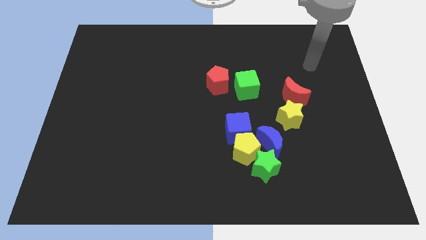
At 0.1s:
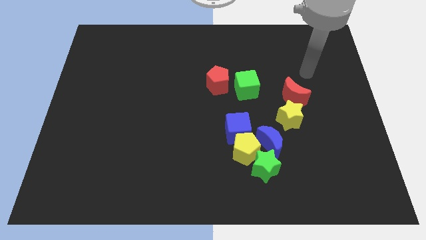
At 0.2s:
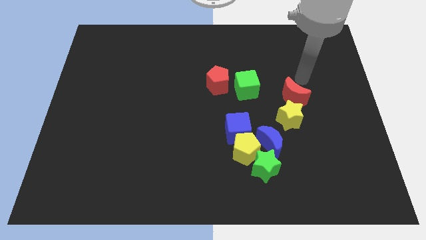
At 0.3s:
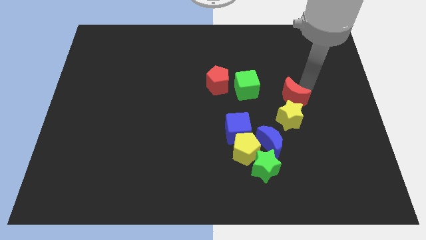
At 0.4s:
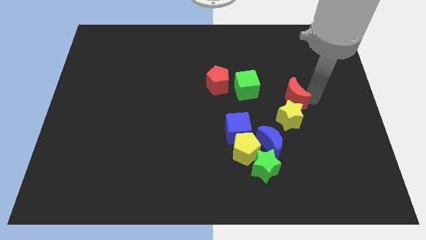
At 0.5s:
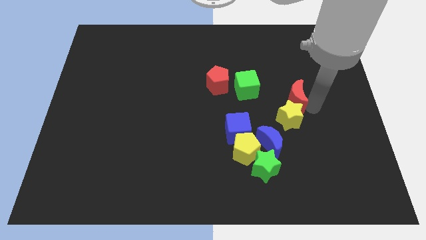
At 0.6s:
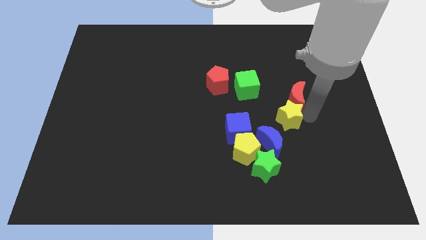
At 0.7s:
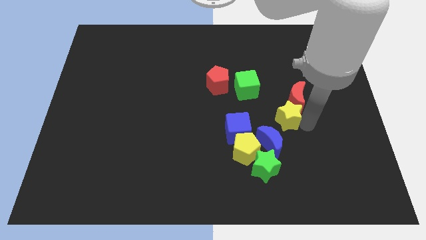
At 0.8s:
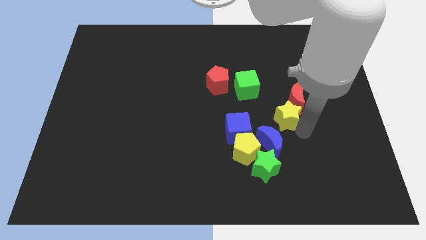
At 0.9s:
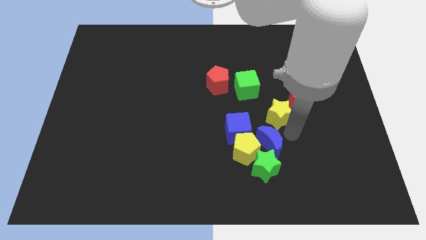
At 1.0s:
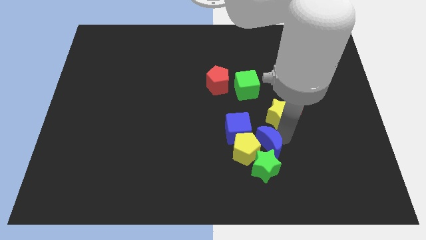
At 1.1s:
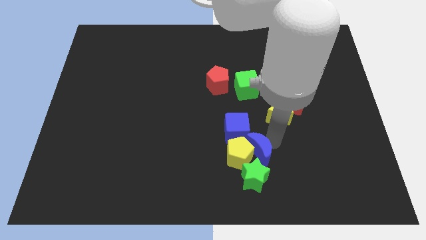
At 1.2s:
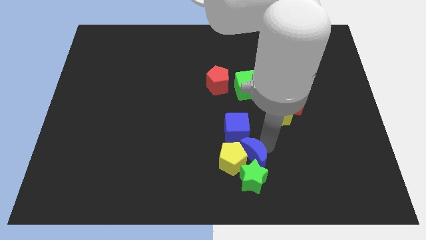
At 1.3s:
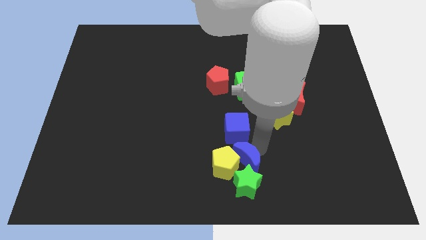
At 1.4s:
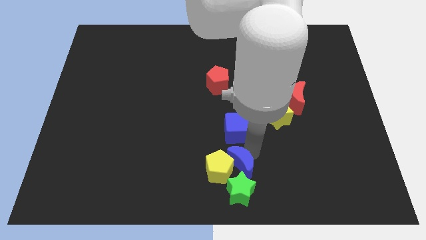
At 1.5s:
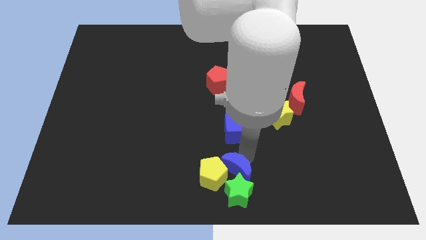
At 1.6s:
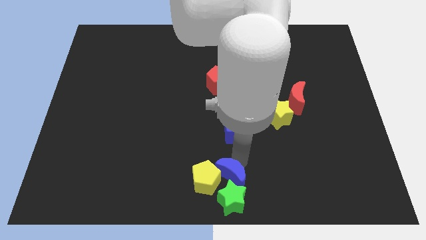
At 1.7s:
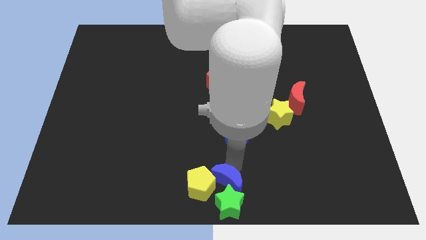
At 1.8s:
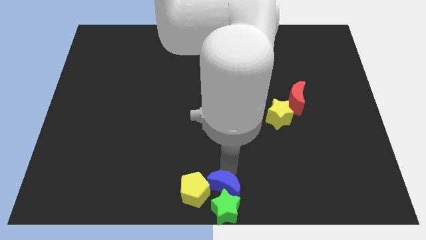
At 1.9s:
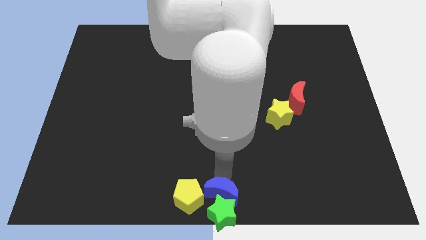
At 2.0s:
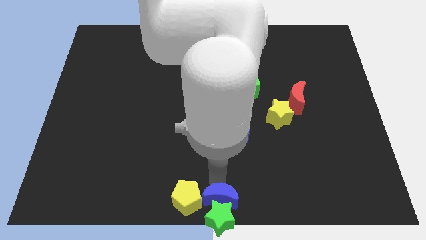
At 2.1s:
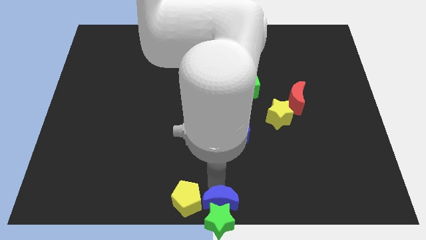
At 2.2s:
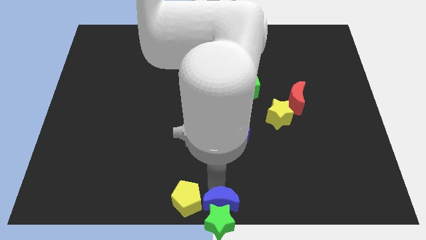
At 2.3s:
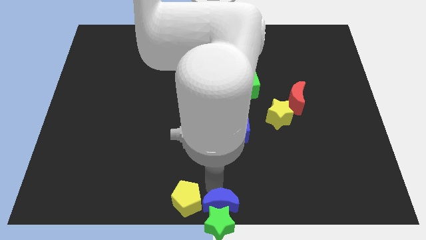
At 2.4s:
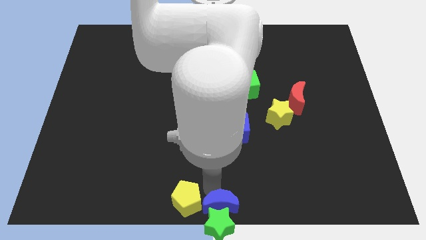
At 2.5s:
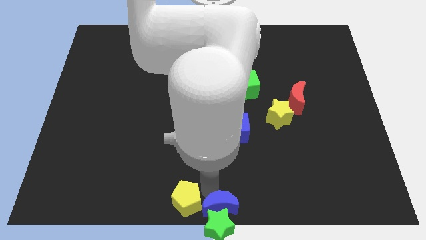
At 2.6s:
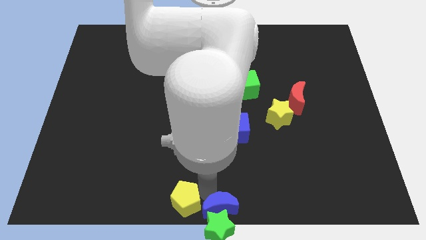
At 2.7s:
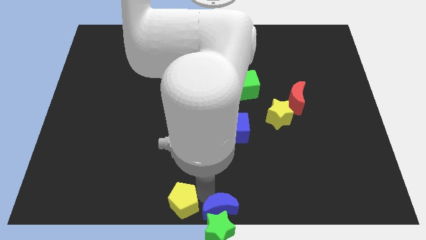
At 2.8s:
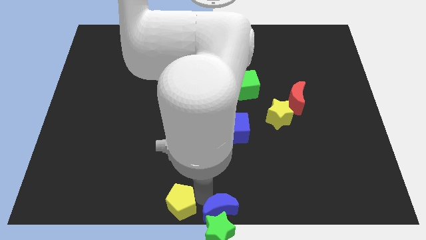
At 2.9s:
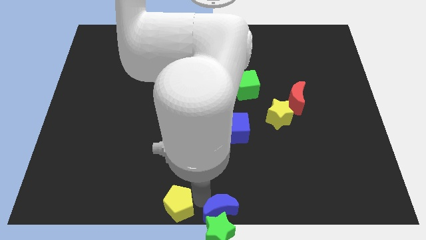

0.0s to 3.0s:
move the yellow pentagon away from the clump

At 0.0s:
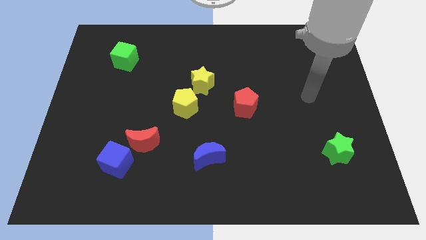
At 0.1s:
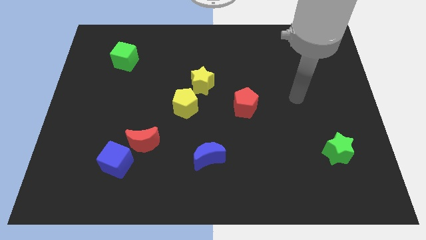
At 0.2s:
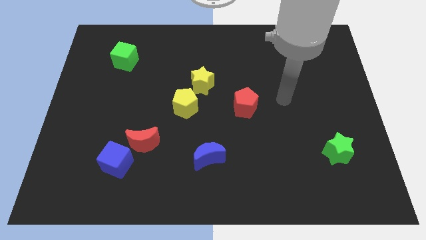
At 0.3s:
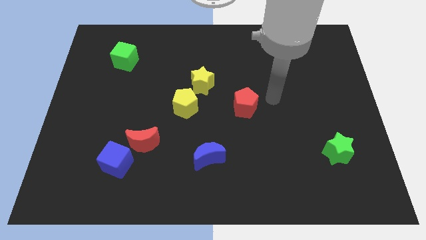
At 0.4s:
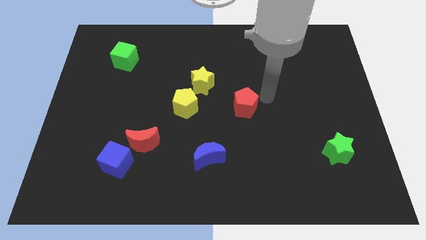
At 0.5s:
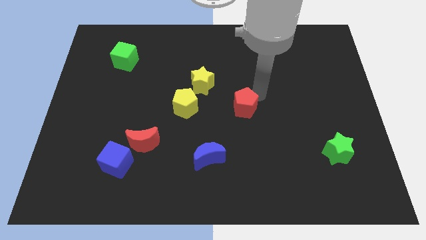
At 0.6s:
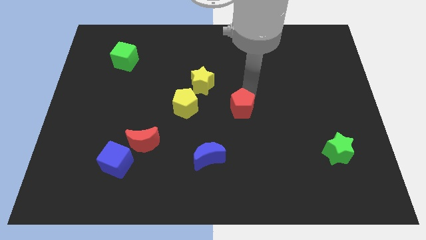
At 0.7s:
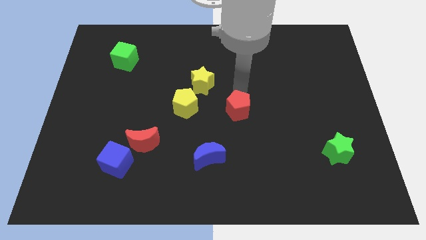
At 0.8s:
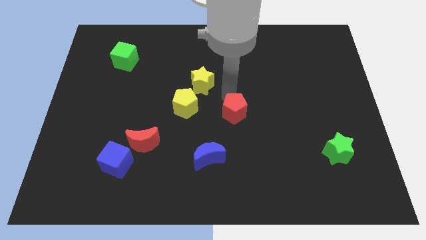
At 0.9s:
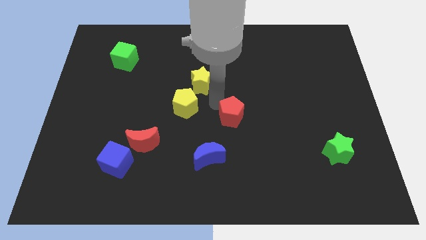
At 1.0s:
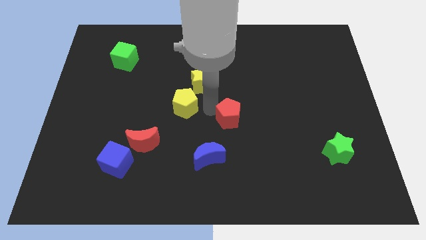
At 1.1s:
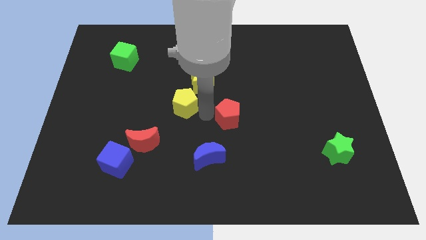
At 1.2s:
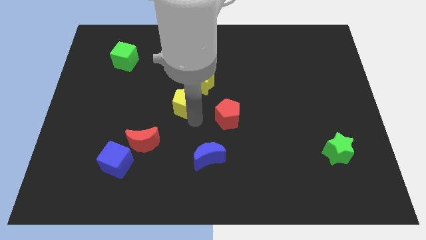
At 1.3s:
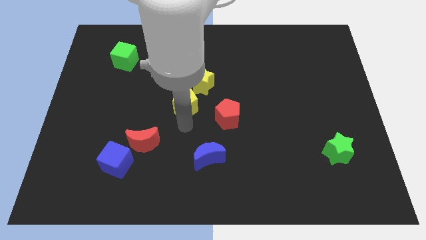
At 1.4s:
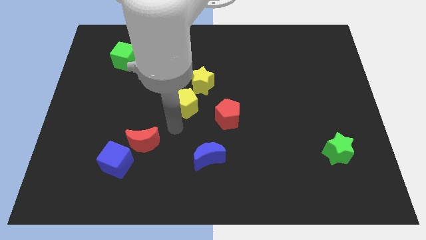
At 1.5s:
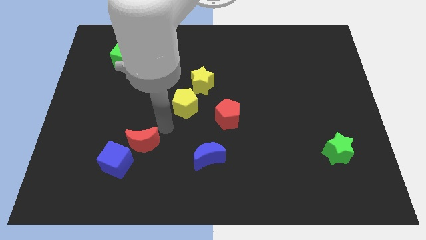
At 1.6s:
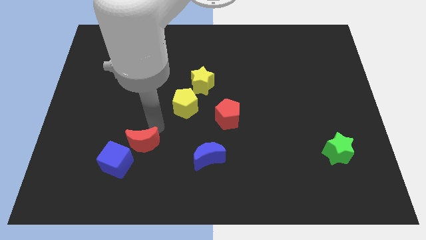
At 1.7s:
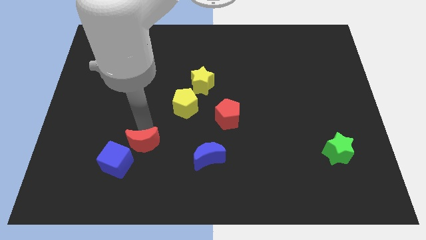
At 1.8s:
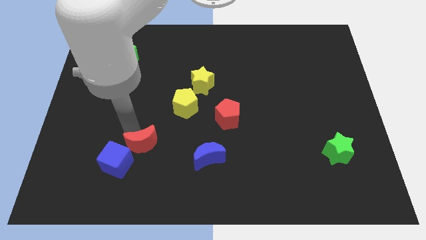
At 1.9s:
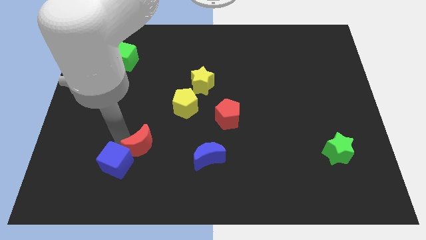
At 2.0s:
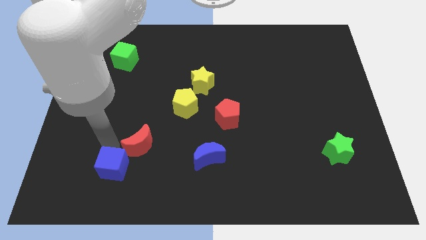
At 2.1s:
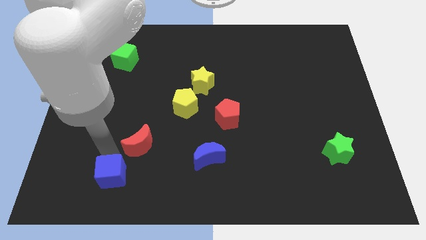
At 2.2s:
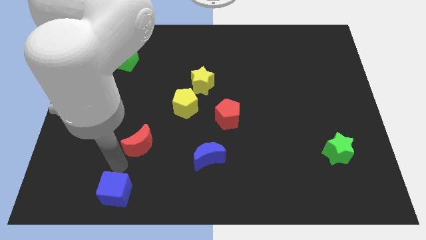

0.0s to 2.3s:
separate the red moon from the blue cube

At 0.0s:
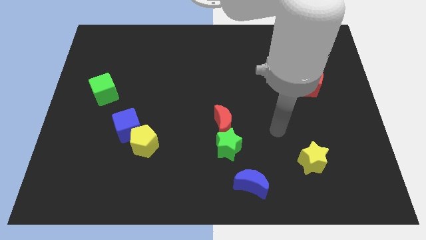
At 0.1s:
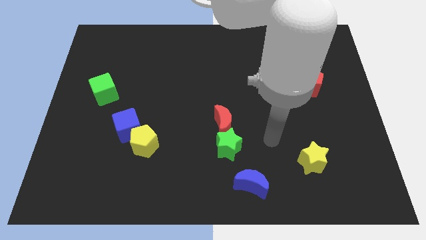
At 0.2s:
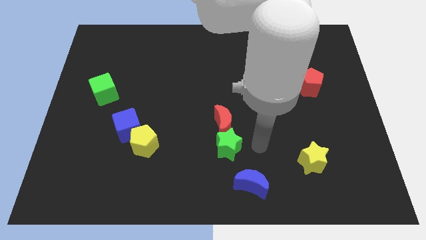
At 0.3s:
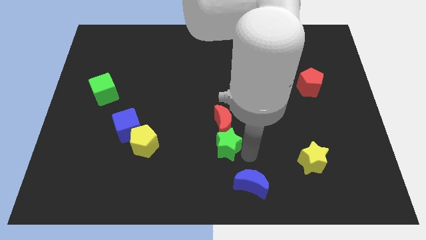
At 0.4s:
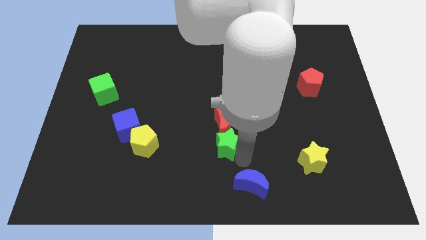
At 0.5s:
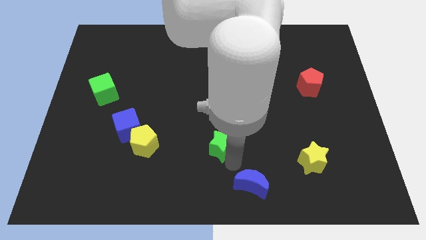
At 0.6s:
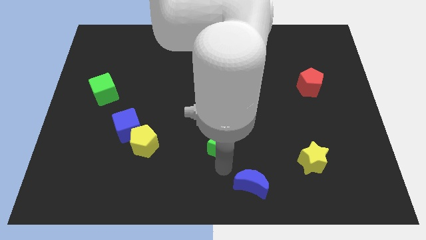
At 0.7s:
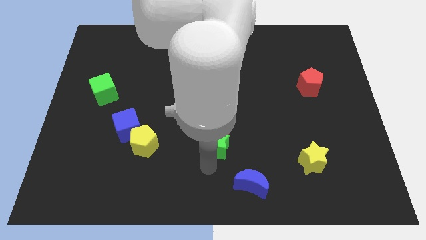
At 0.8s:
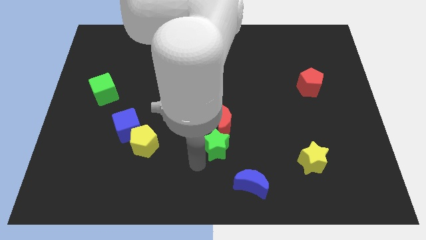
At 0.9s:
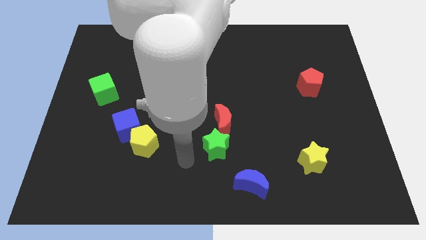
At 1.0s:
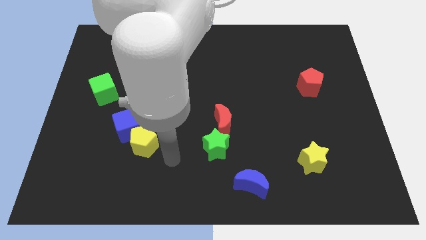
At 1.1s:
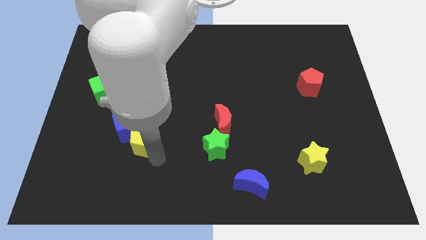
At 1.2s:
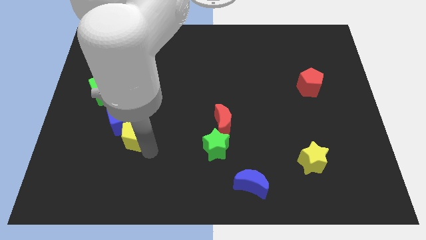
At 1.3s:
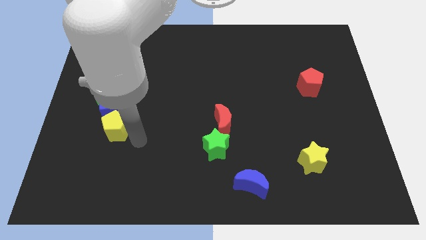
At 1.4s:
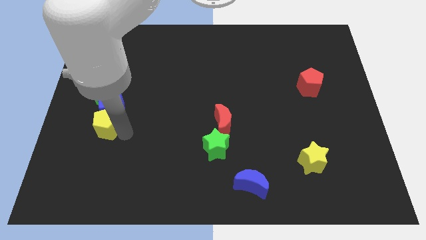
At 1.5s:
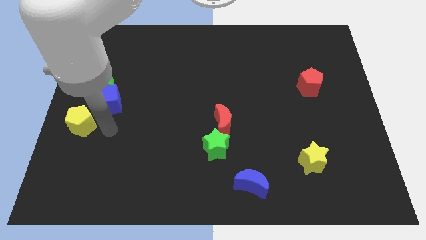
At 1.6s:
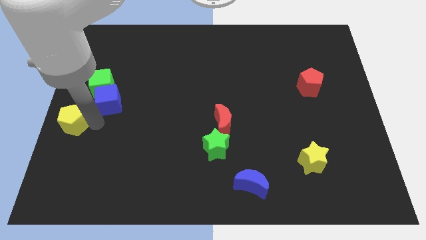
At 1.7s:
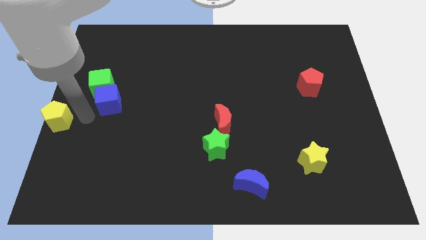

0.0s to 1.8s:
pull the blue cube apart from the yellow pentagon

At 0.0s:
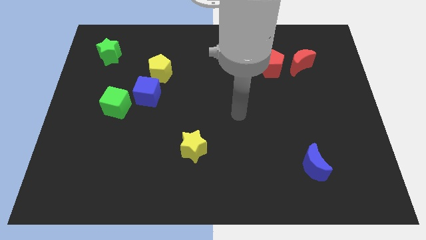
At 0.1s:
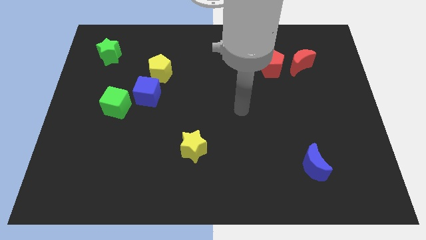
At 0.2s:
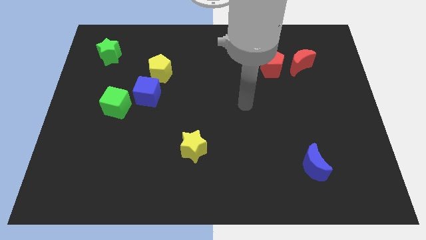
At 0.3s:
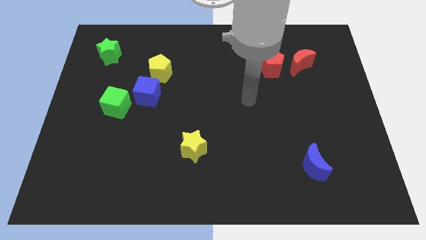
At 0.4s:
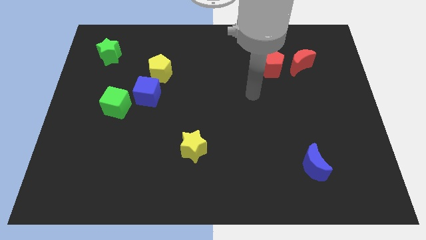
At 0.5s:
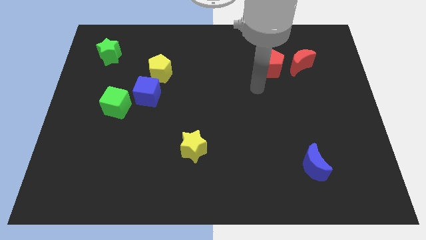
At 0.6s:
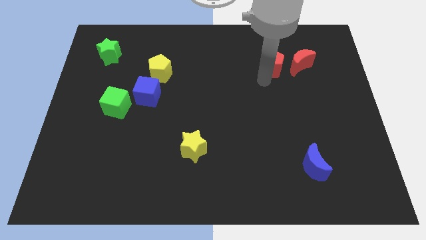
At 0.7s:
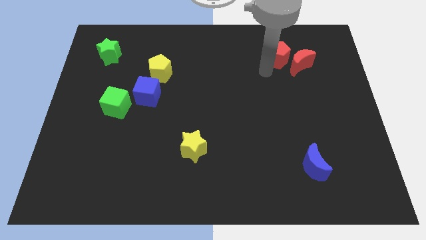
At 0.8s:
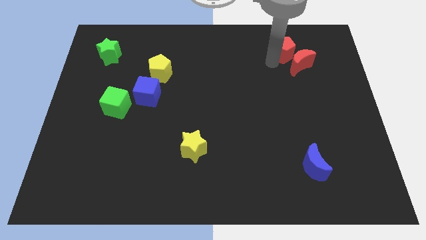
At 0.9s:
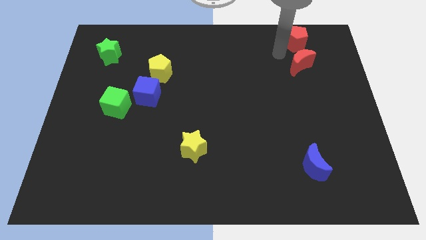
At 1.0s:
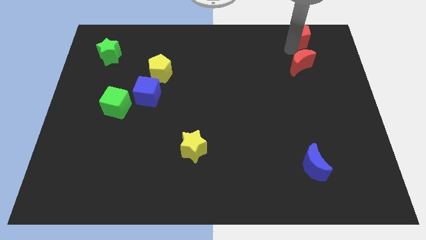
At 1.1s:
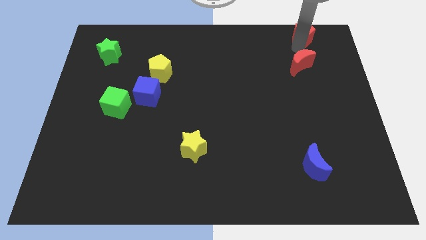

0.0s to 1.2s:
pull the red moon apart from the red pentagon

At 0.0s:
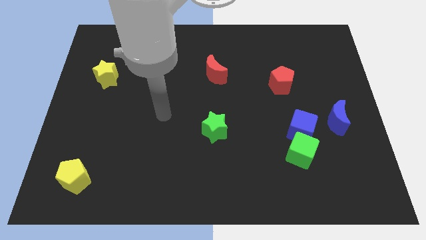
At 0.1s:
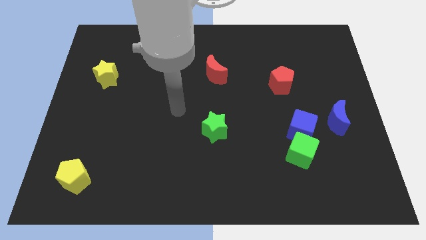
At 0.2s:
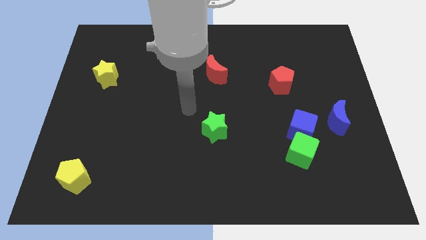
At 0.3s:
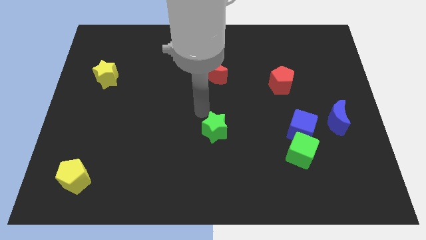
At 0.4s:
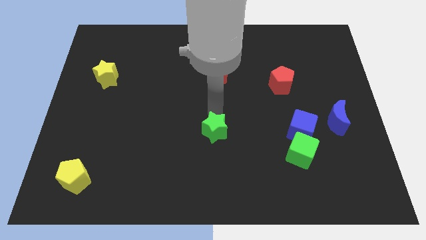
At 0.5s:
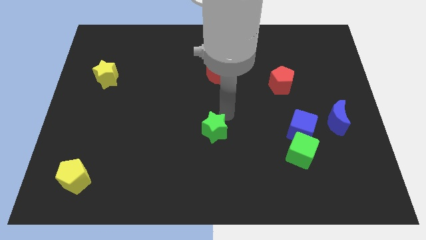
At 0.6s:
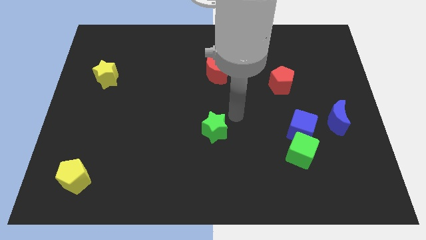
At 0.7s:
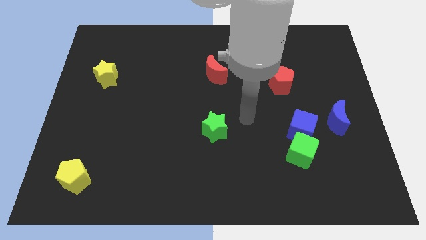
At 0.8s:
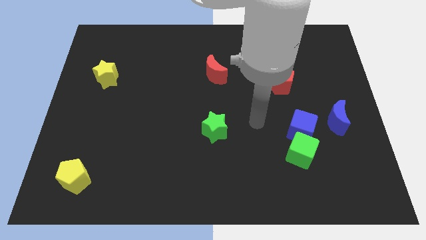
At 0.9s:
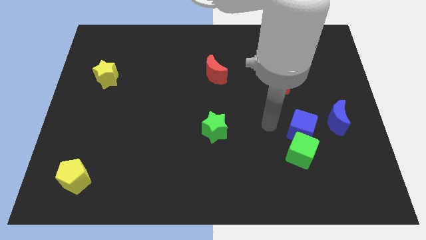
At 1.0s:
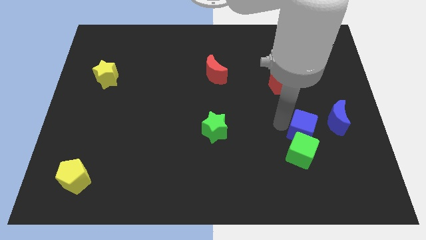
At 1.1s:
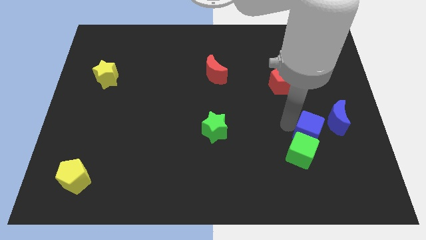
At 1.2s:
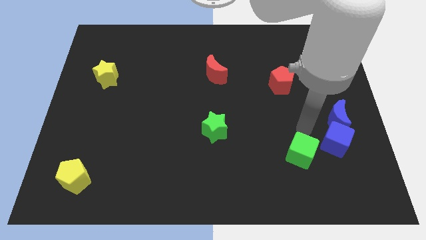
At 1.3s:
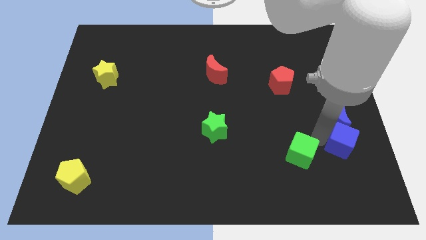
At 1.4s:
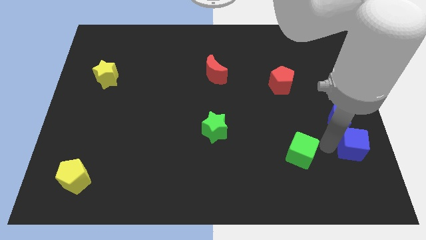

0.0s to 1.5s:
separate the green cube from the blue cube
